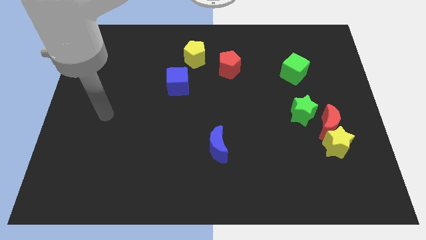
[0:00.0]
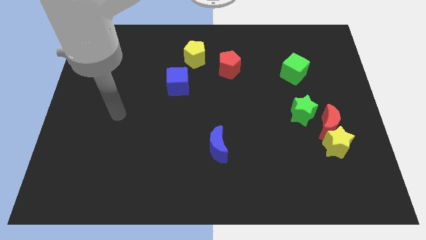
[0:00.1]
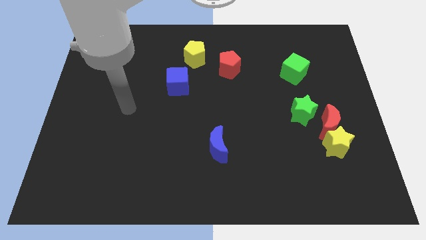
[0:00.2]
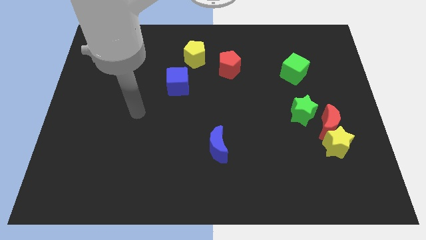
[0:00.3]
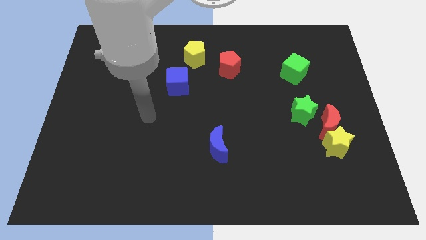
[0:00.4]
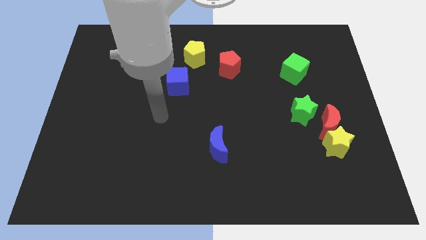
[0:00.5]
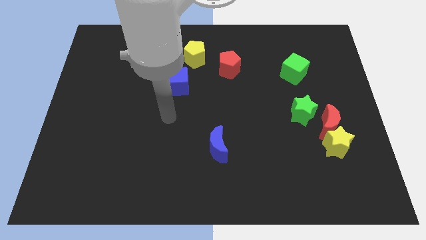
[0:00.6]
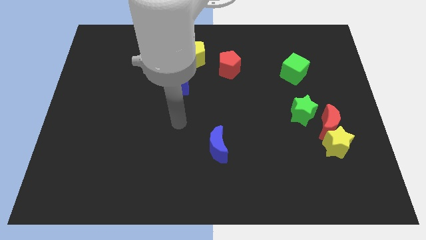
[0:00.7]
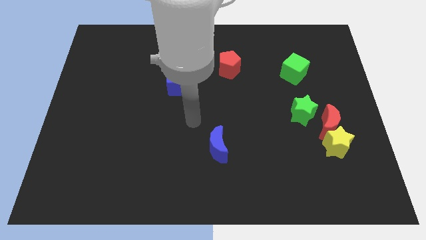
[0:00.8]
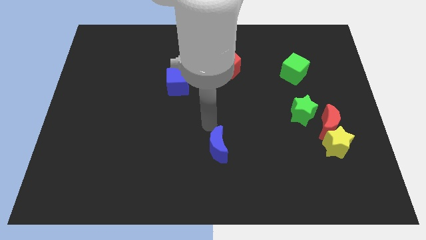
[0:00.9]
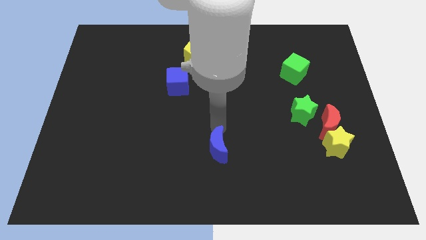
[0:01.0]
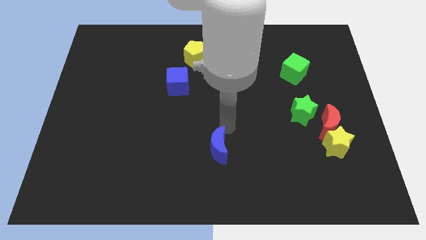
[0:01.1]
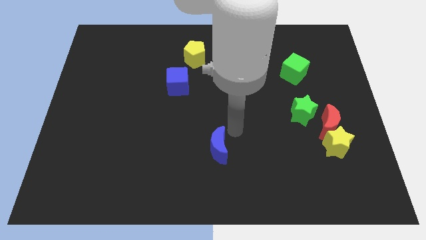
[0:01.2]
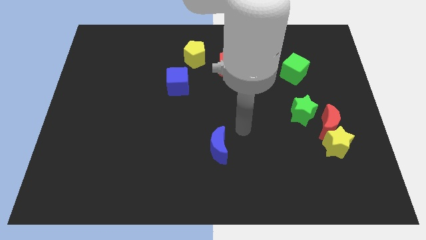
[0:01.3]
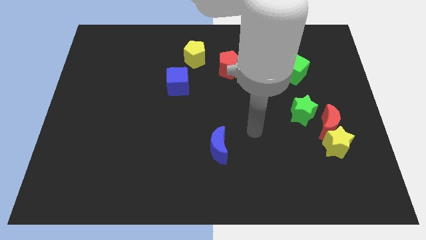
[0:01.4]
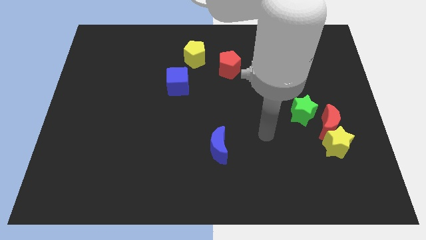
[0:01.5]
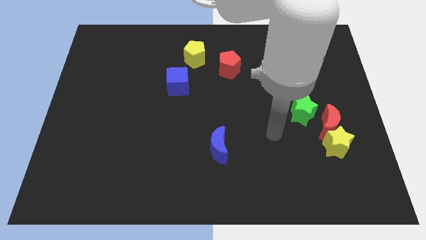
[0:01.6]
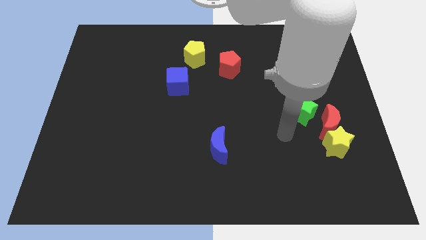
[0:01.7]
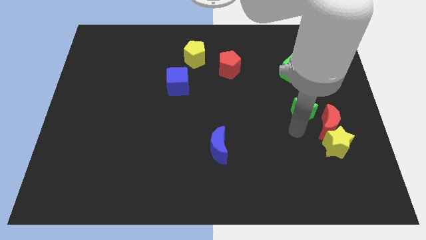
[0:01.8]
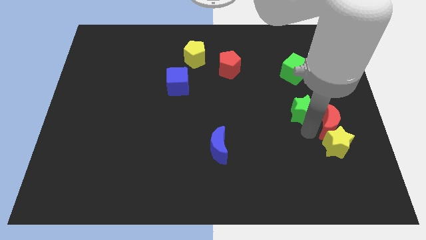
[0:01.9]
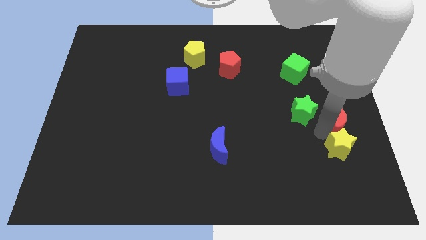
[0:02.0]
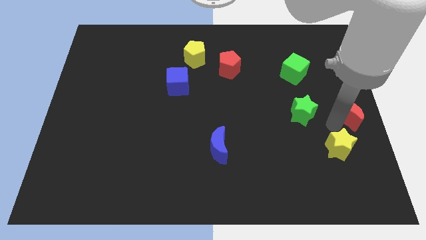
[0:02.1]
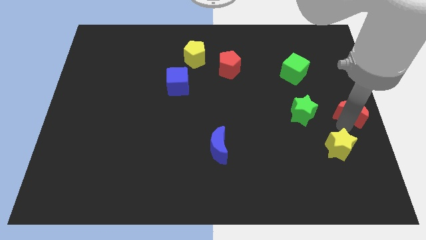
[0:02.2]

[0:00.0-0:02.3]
separate the yellow star from the red moon

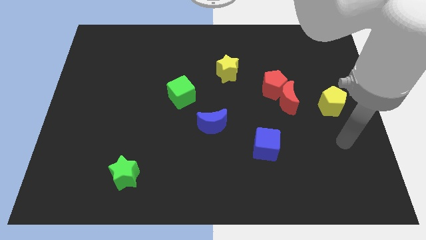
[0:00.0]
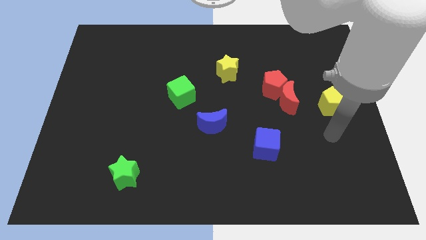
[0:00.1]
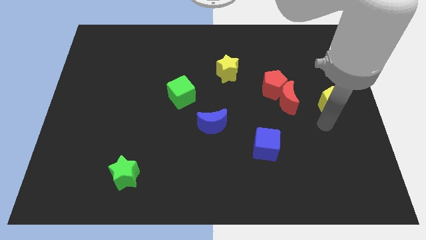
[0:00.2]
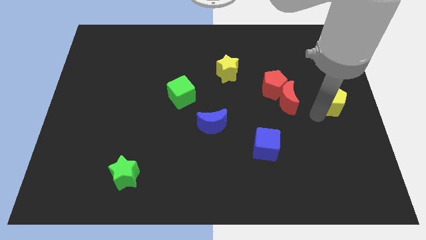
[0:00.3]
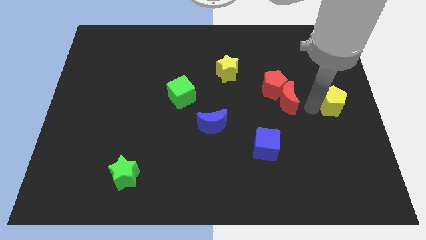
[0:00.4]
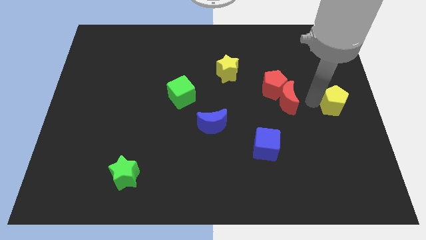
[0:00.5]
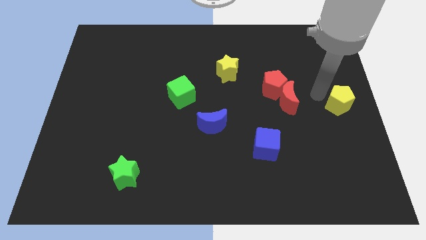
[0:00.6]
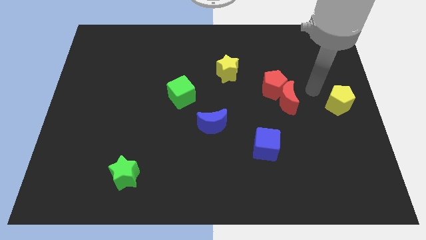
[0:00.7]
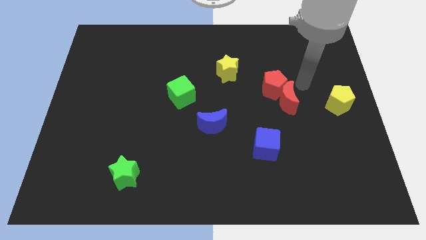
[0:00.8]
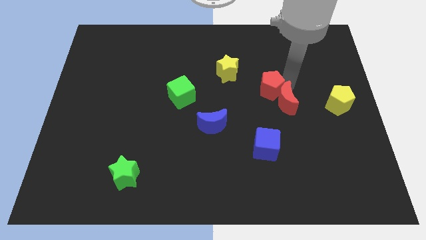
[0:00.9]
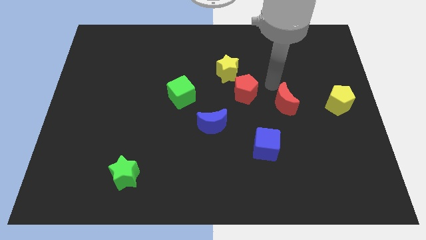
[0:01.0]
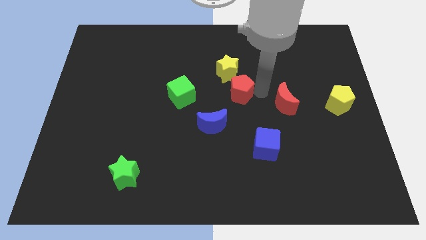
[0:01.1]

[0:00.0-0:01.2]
move the red moon away from the red pentagon

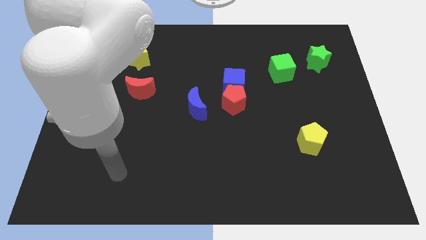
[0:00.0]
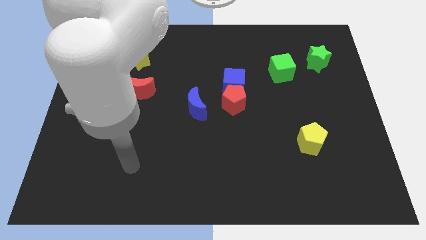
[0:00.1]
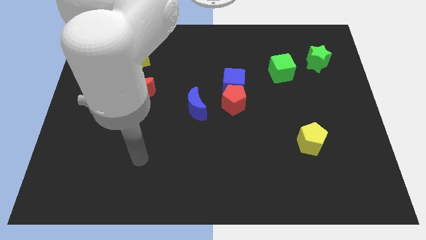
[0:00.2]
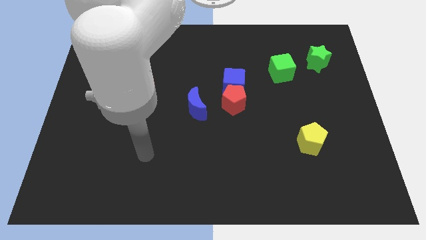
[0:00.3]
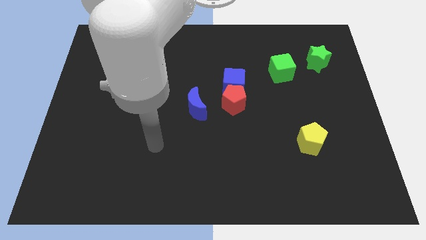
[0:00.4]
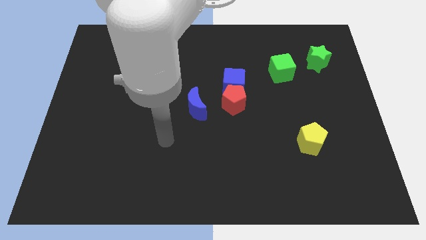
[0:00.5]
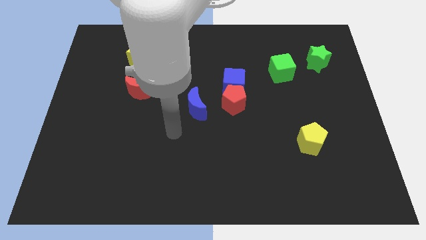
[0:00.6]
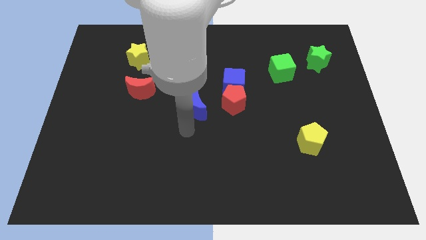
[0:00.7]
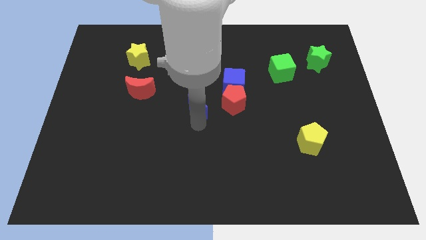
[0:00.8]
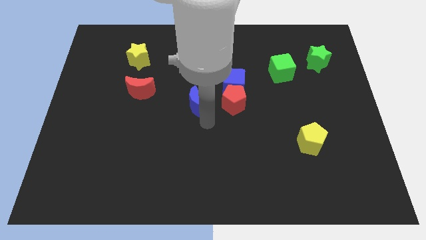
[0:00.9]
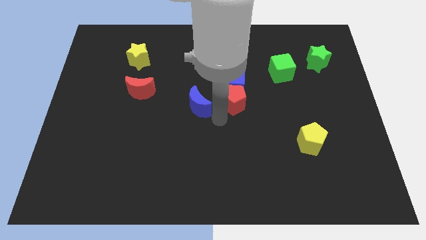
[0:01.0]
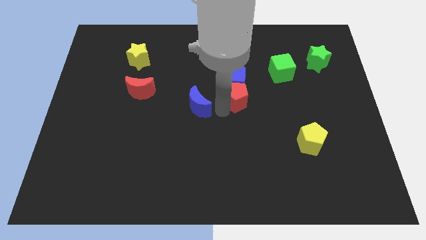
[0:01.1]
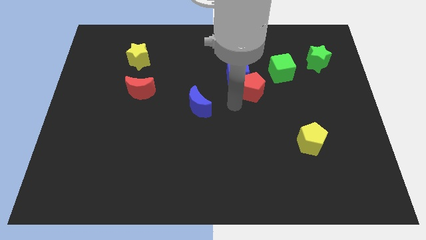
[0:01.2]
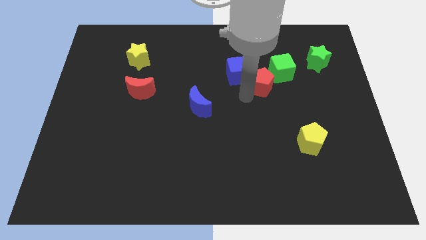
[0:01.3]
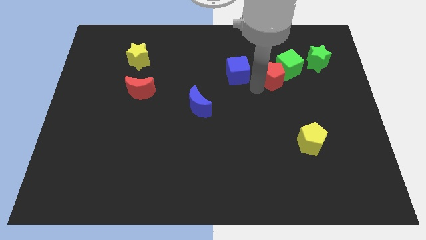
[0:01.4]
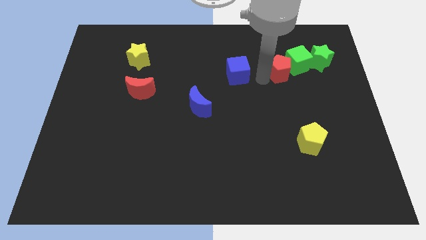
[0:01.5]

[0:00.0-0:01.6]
separate the blue cube from the red pentagon

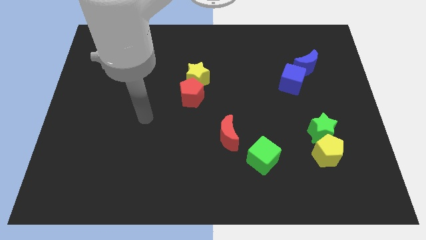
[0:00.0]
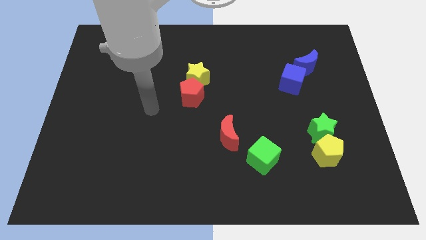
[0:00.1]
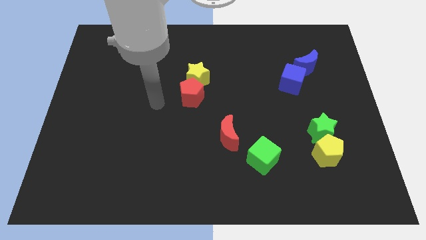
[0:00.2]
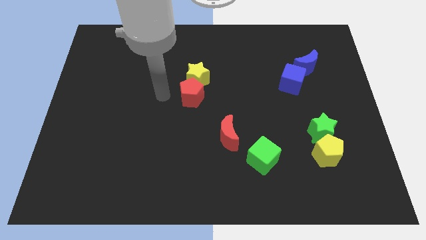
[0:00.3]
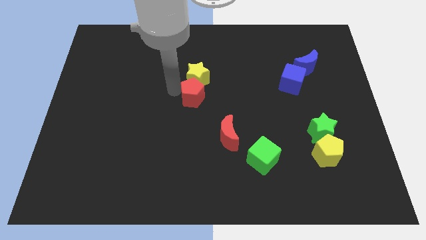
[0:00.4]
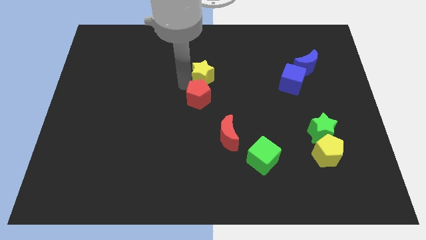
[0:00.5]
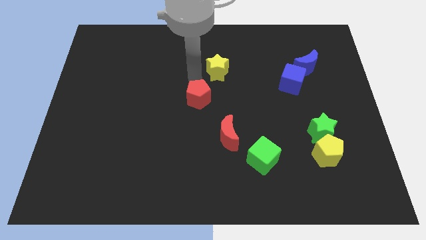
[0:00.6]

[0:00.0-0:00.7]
pull the red pentagon apart from the yellow star

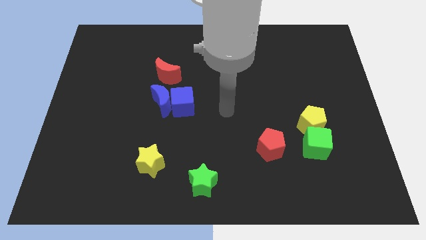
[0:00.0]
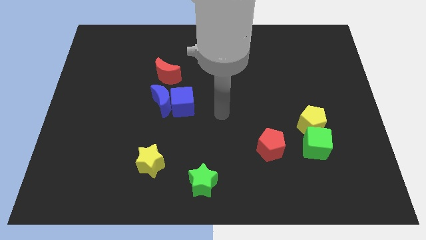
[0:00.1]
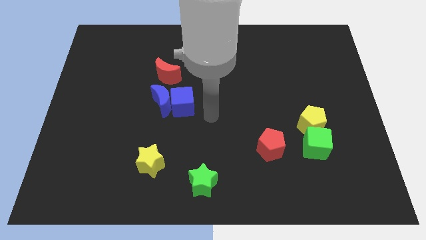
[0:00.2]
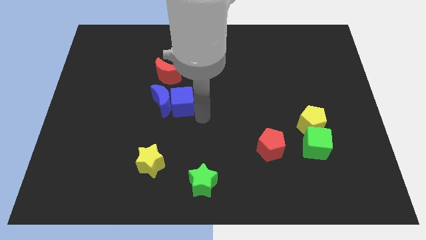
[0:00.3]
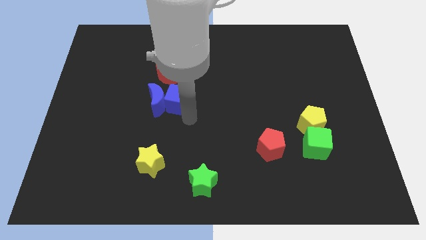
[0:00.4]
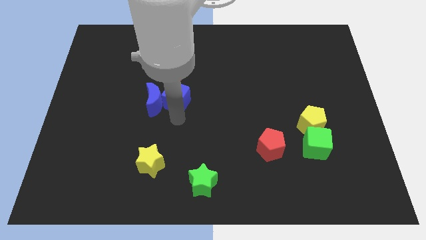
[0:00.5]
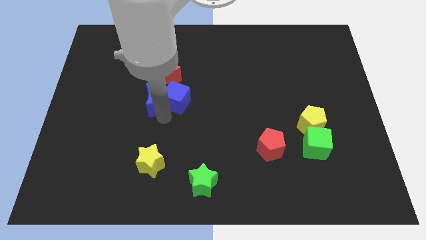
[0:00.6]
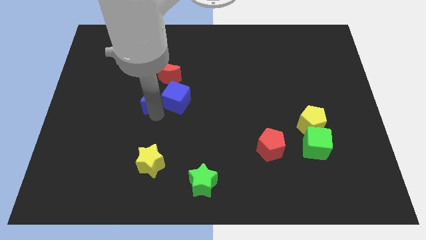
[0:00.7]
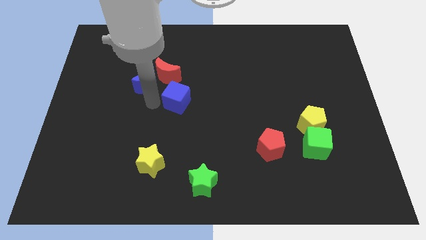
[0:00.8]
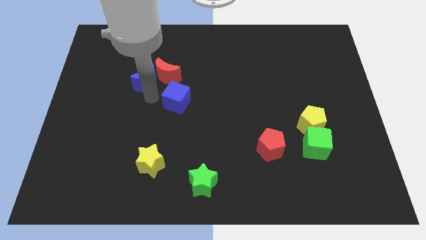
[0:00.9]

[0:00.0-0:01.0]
pull the blue cube apart from the blue moon

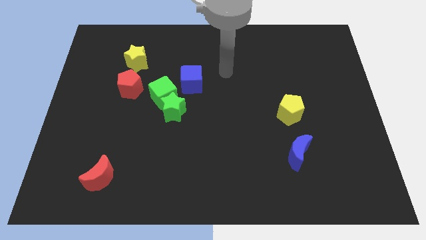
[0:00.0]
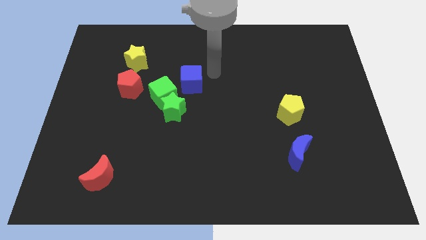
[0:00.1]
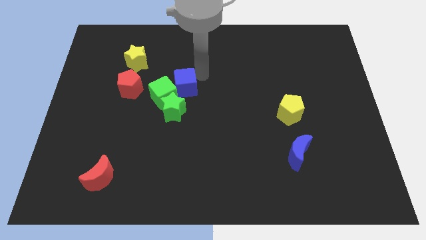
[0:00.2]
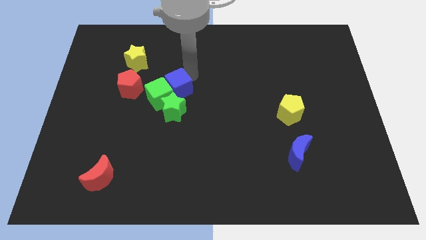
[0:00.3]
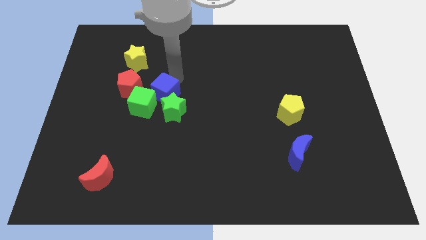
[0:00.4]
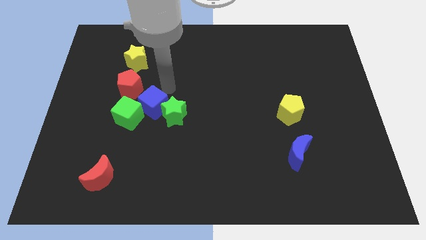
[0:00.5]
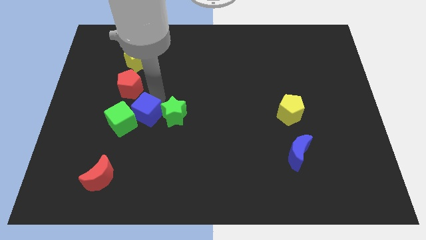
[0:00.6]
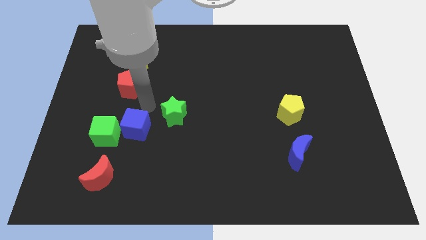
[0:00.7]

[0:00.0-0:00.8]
separate the green cube from the green star, blue cube, and red pentagon

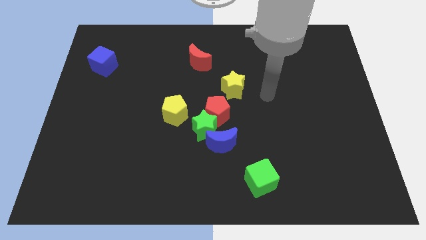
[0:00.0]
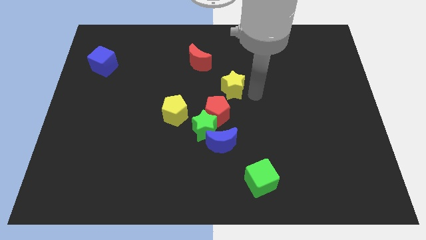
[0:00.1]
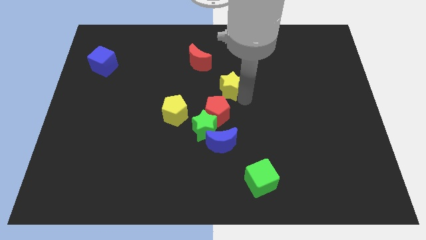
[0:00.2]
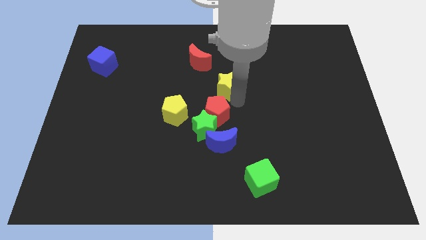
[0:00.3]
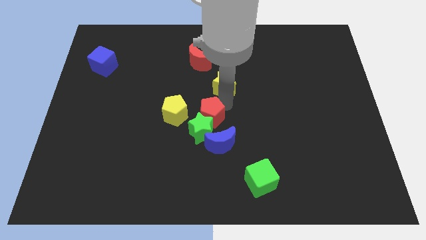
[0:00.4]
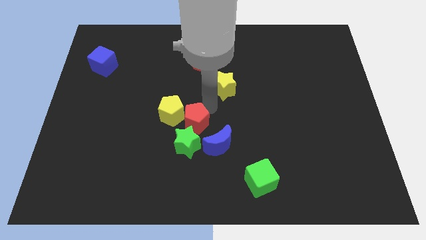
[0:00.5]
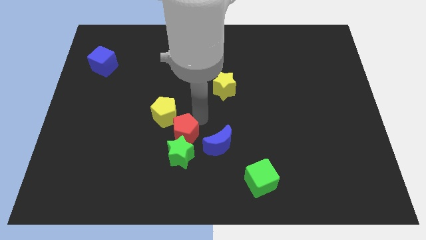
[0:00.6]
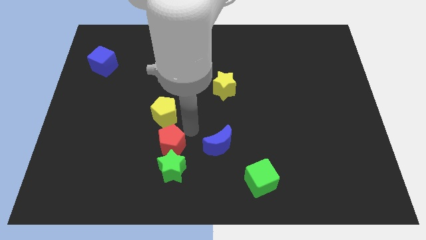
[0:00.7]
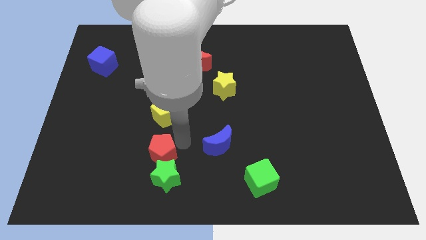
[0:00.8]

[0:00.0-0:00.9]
move the green star away from the red pentagon, blue moon, and yellow pentagon

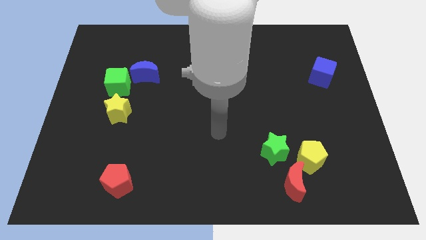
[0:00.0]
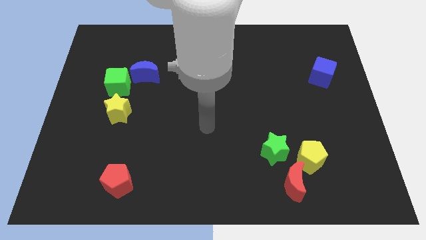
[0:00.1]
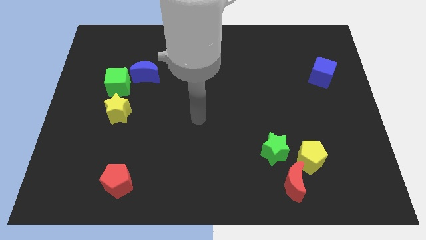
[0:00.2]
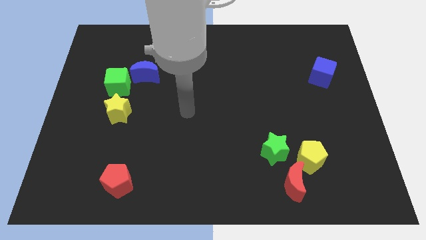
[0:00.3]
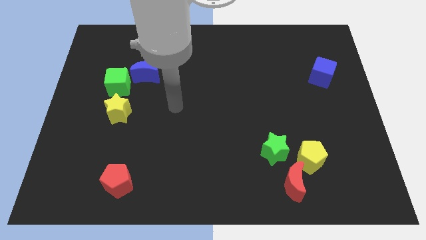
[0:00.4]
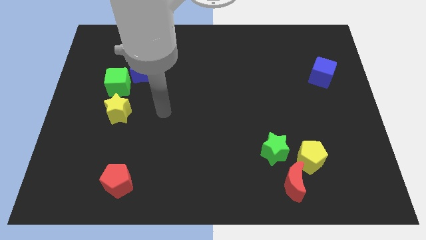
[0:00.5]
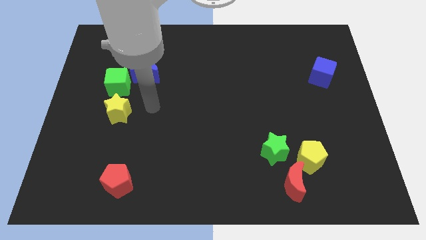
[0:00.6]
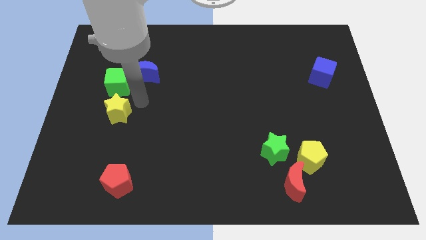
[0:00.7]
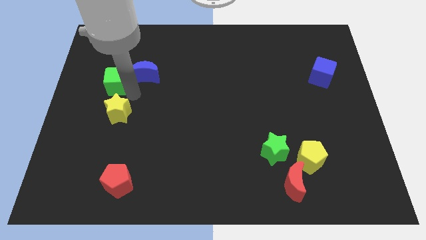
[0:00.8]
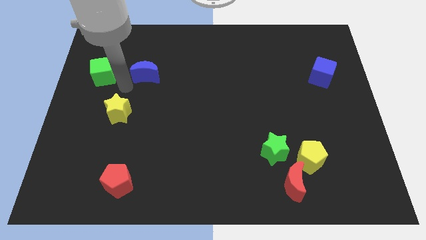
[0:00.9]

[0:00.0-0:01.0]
move the blue moon away from the green cube
